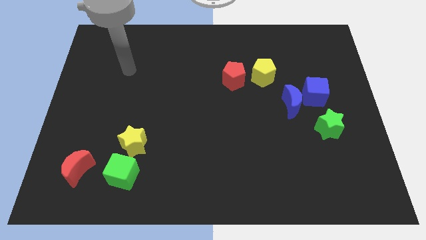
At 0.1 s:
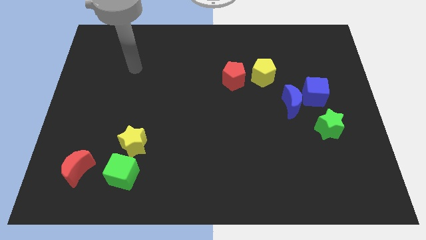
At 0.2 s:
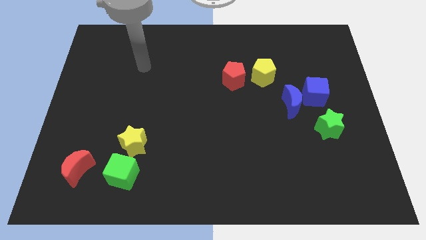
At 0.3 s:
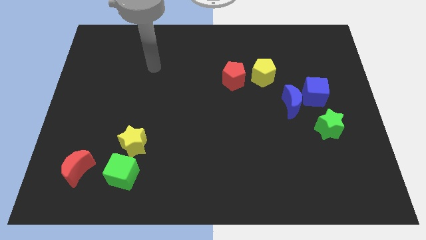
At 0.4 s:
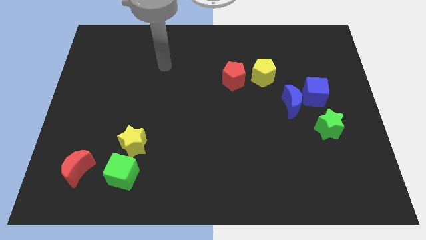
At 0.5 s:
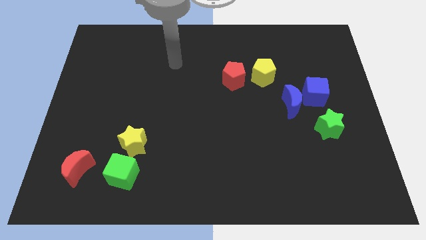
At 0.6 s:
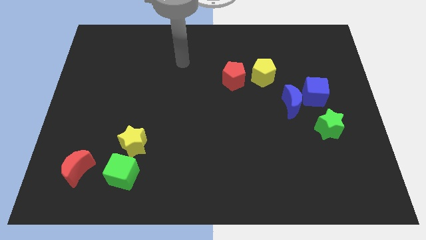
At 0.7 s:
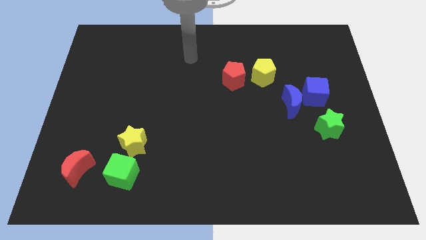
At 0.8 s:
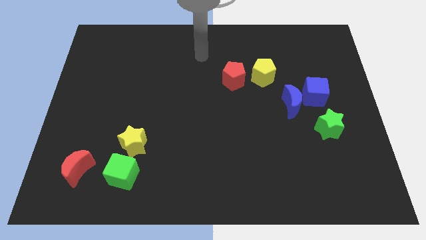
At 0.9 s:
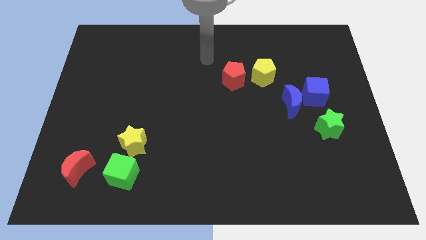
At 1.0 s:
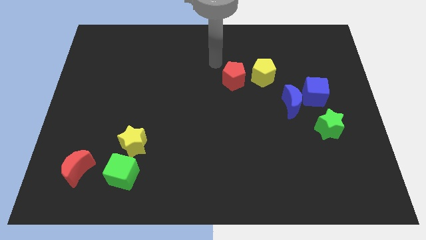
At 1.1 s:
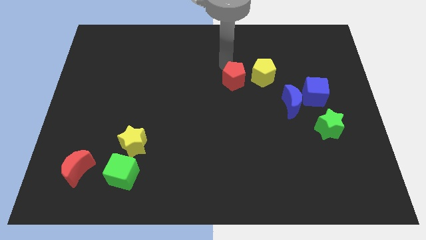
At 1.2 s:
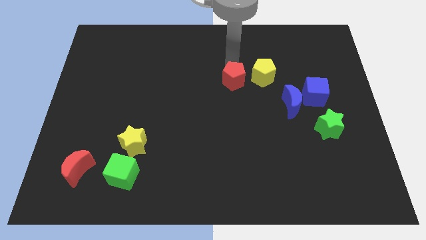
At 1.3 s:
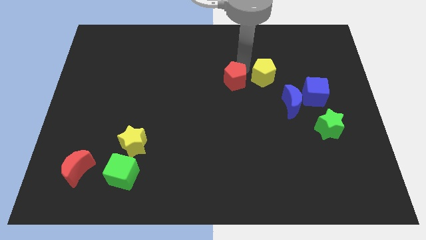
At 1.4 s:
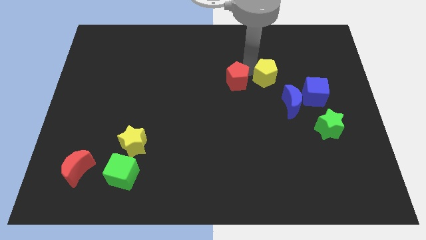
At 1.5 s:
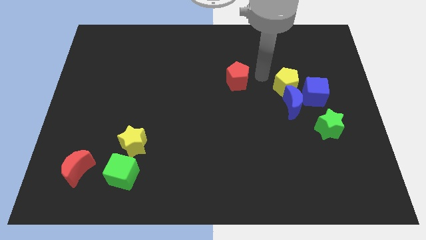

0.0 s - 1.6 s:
pull the red pentagon apart from the yellow pentagon

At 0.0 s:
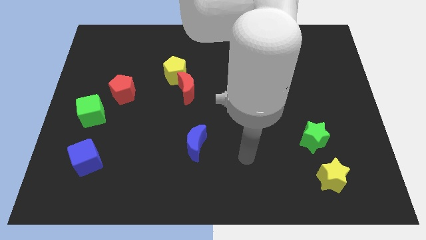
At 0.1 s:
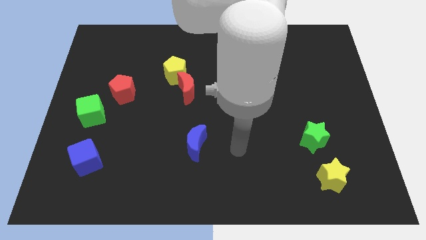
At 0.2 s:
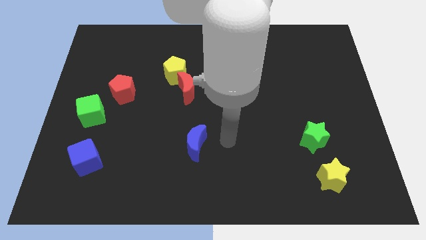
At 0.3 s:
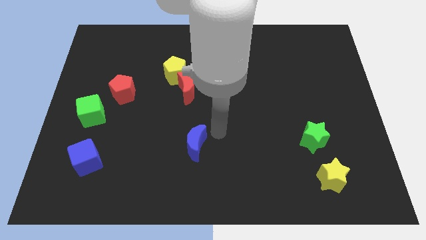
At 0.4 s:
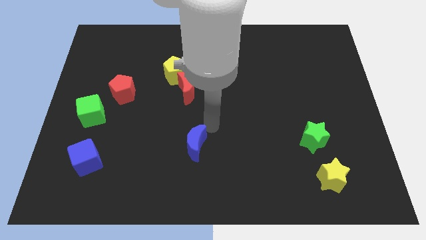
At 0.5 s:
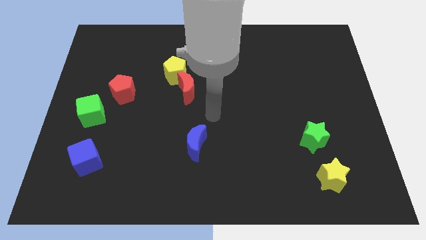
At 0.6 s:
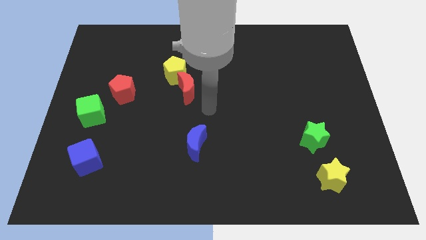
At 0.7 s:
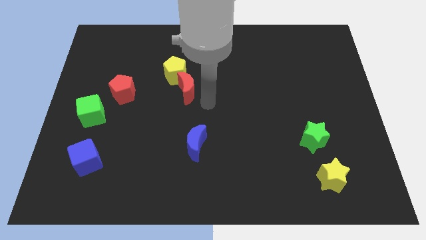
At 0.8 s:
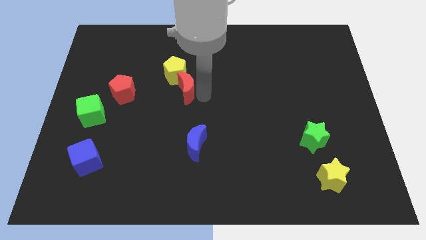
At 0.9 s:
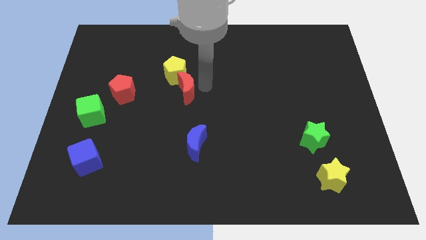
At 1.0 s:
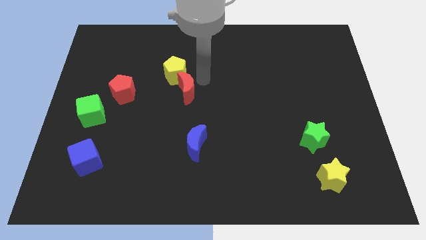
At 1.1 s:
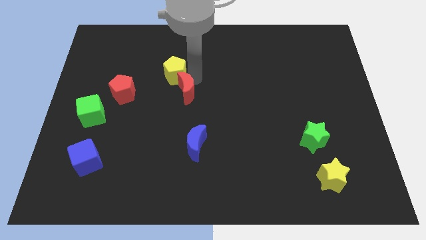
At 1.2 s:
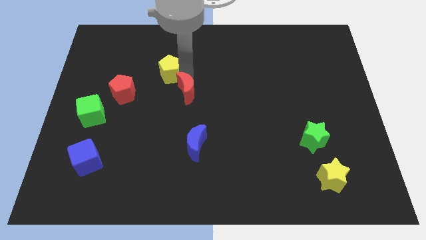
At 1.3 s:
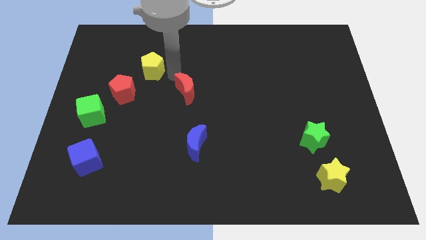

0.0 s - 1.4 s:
pull the red moon apart from the yellow pentagon

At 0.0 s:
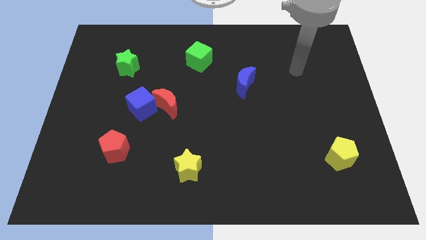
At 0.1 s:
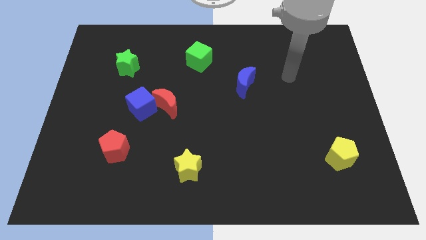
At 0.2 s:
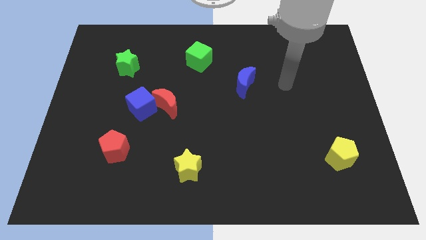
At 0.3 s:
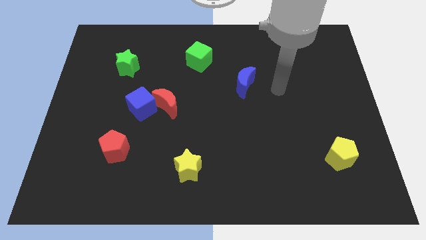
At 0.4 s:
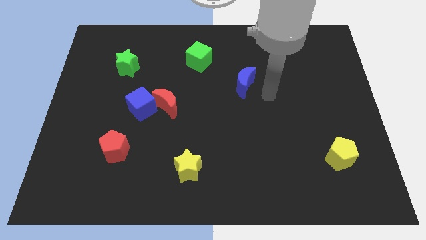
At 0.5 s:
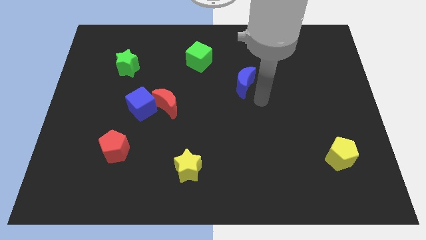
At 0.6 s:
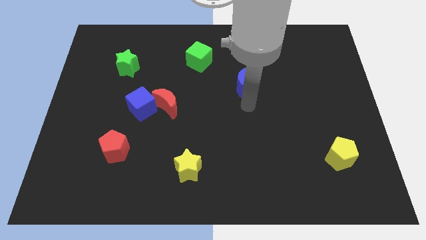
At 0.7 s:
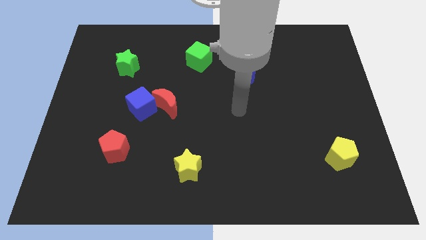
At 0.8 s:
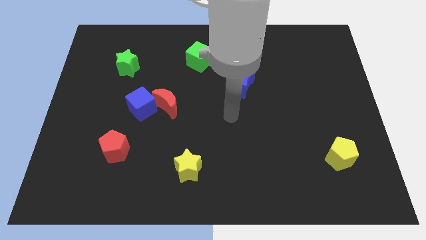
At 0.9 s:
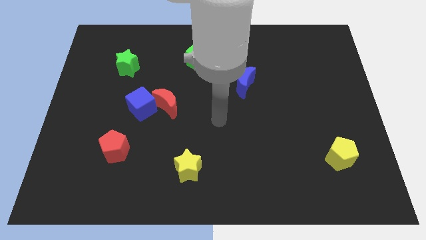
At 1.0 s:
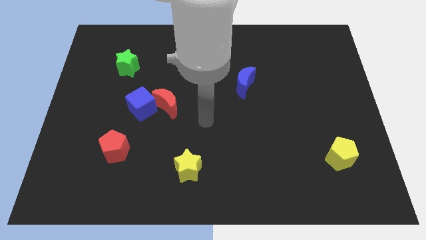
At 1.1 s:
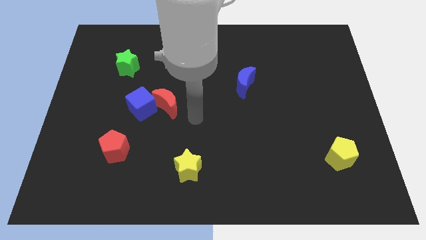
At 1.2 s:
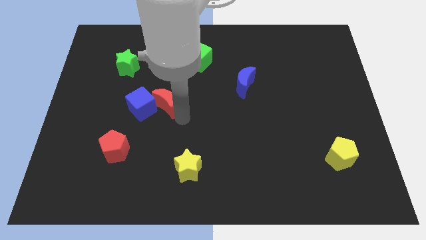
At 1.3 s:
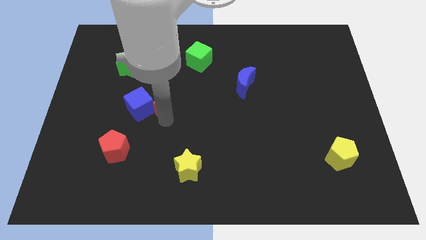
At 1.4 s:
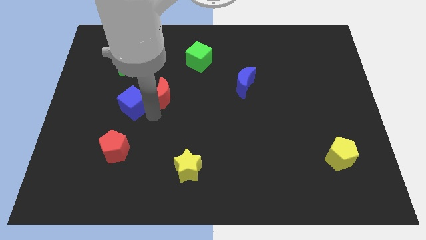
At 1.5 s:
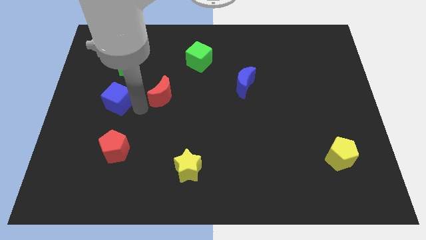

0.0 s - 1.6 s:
separate the red moon from the blue cube

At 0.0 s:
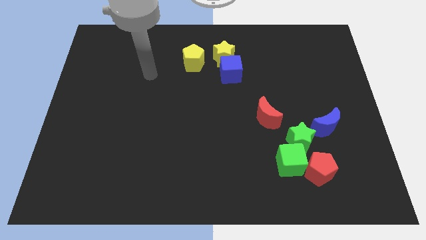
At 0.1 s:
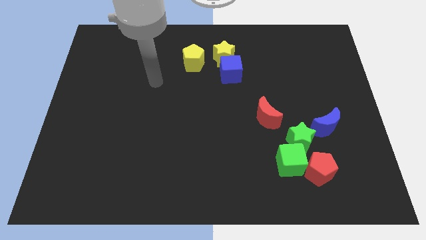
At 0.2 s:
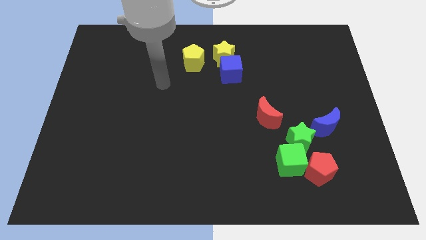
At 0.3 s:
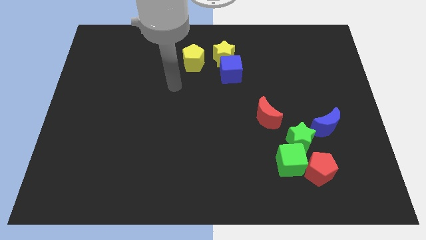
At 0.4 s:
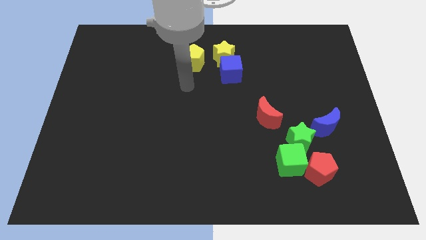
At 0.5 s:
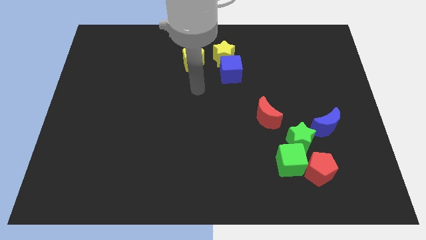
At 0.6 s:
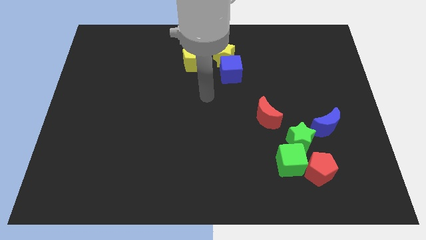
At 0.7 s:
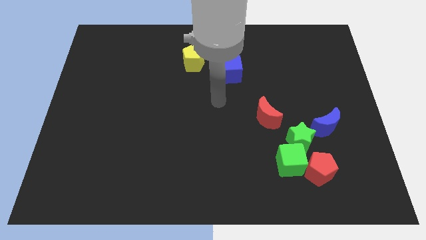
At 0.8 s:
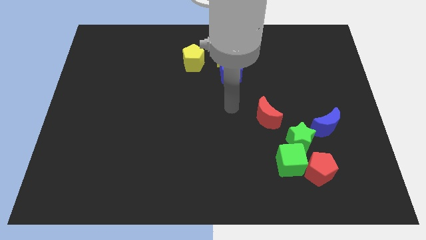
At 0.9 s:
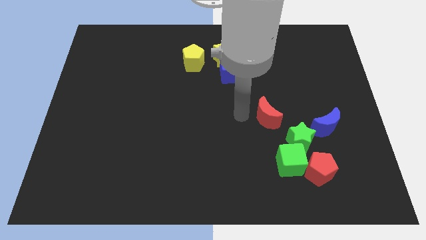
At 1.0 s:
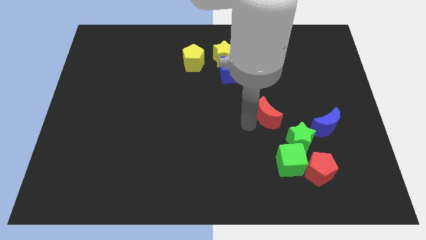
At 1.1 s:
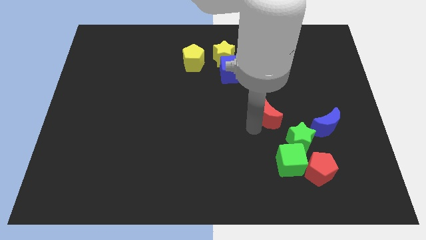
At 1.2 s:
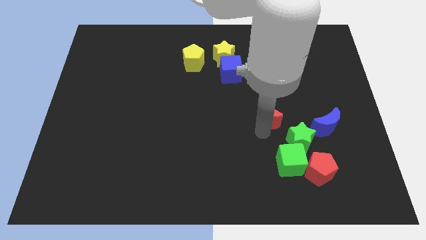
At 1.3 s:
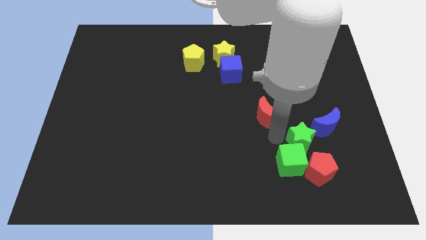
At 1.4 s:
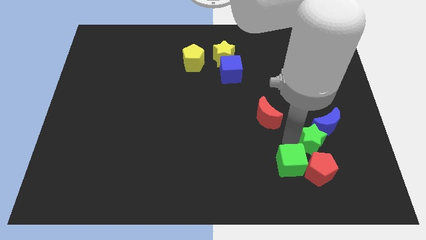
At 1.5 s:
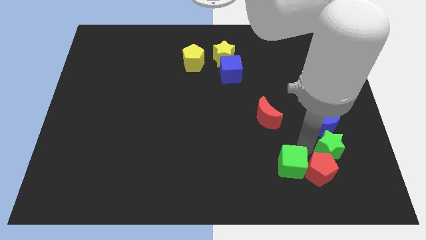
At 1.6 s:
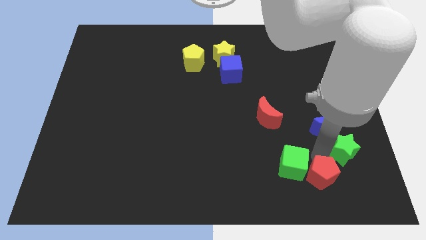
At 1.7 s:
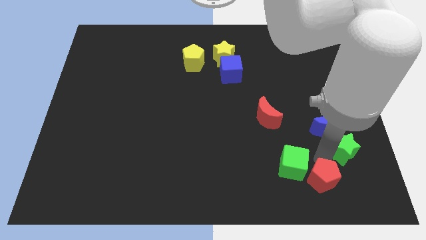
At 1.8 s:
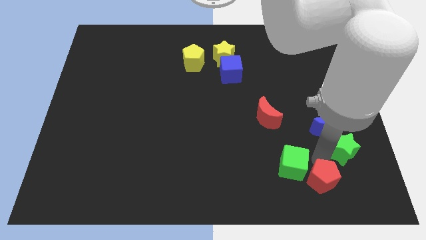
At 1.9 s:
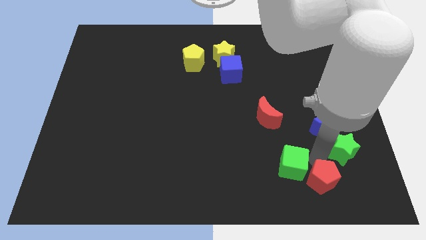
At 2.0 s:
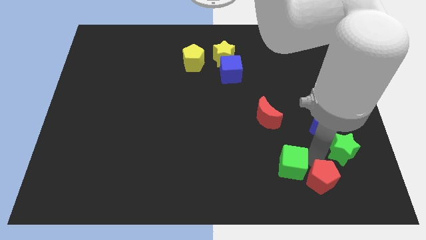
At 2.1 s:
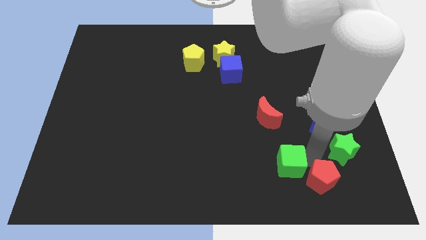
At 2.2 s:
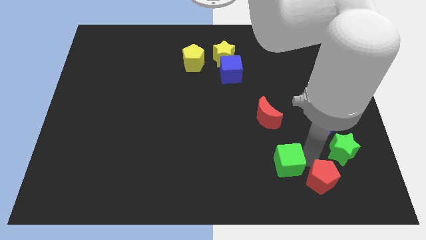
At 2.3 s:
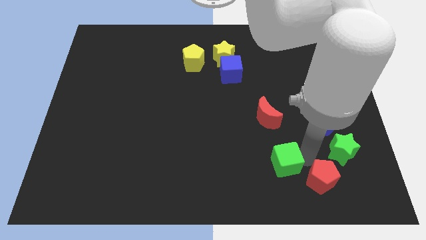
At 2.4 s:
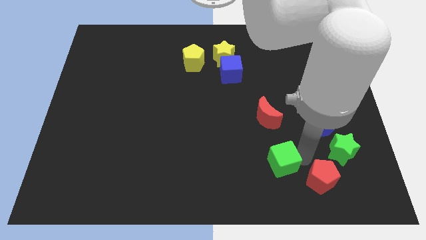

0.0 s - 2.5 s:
pull the green cube apart from the green star and red pentagon

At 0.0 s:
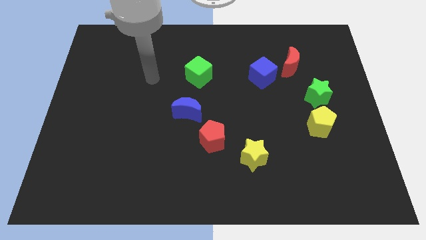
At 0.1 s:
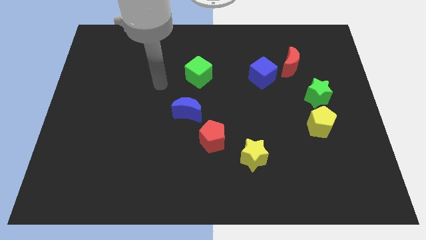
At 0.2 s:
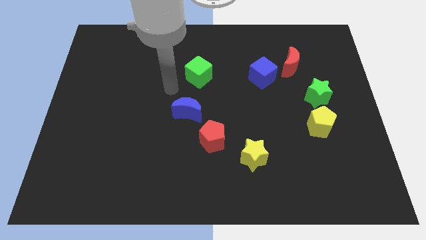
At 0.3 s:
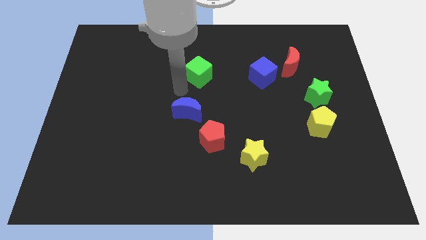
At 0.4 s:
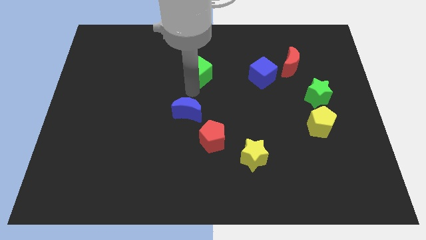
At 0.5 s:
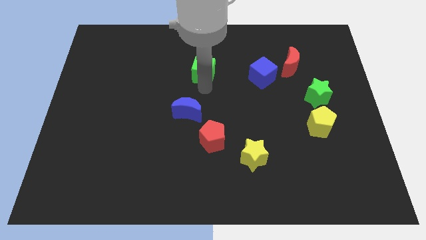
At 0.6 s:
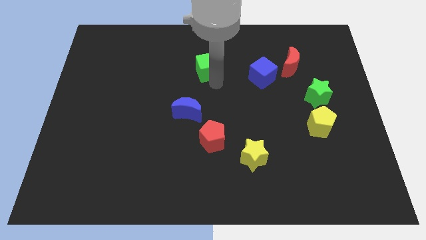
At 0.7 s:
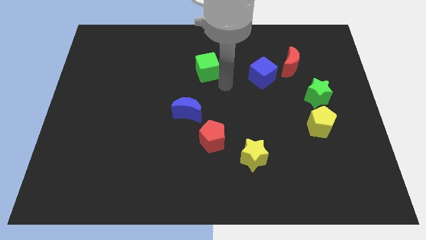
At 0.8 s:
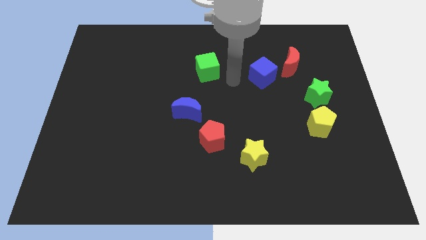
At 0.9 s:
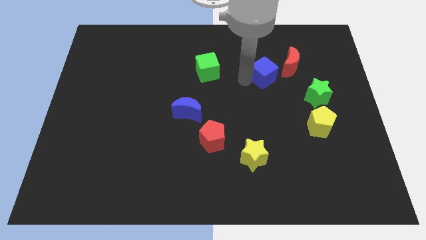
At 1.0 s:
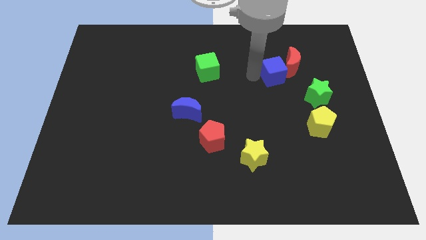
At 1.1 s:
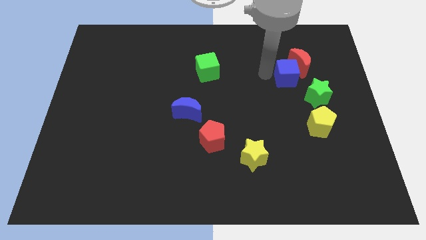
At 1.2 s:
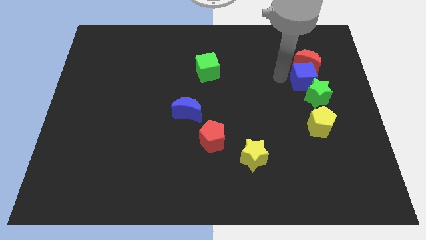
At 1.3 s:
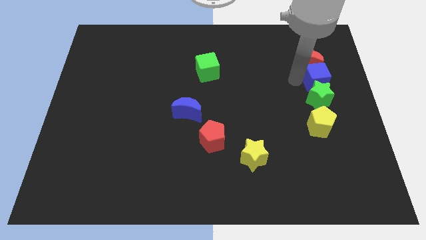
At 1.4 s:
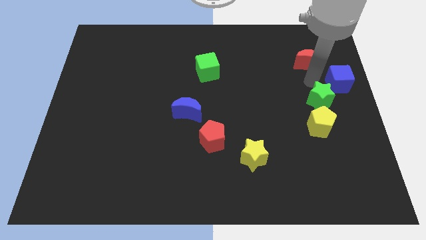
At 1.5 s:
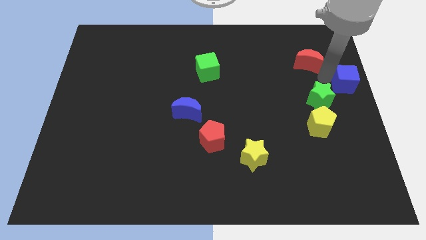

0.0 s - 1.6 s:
move the red moon away from the blue cube

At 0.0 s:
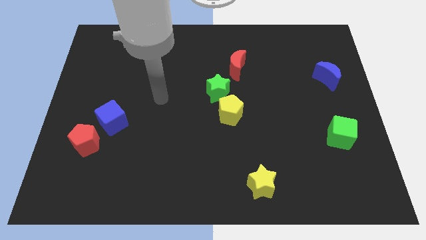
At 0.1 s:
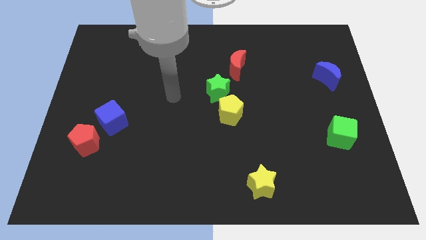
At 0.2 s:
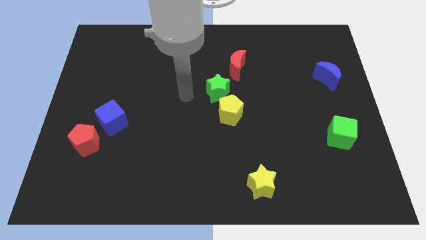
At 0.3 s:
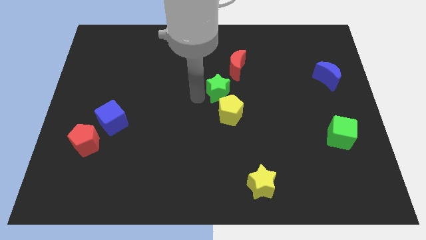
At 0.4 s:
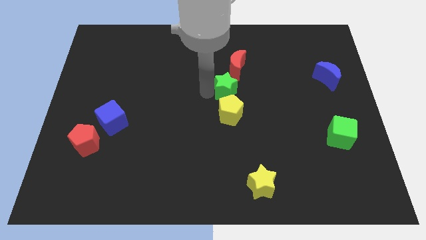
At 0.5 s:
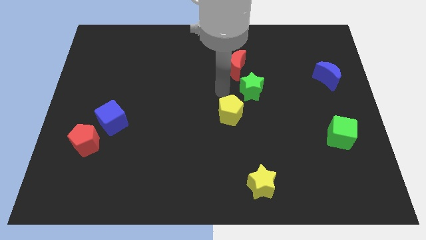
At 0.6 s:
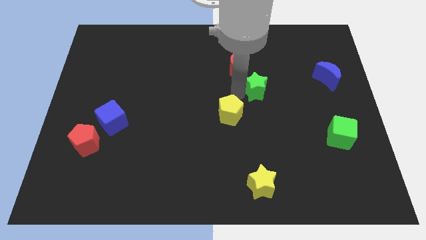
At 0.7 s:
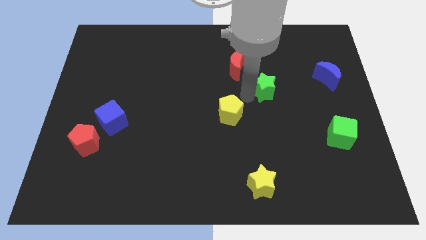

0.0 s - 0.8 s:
move the yellow pentagon away from the green star

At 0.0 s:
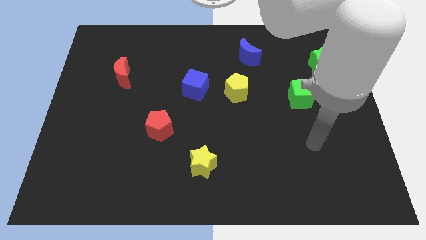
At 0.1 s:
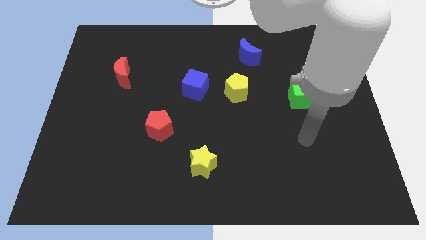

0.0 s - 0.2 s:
pull the blue cube apart from the yellow pentagon
